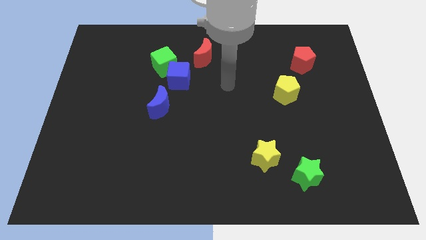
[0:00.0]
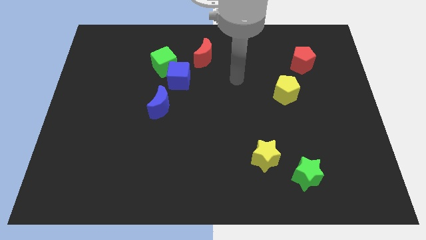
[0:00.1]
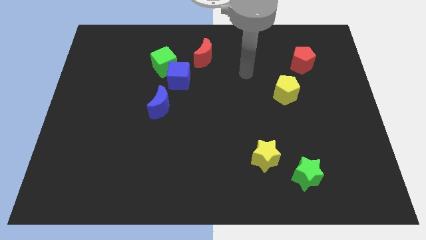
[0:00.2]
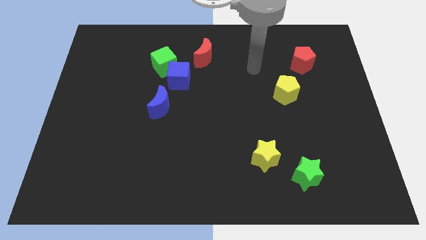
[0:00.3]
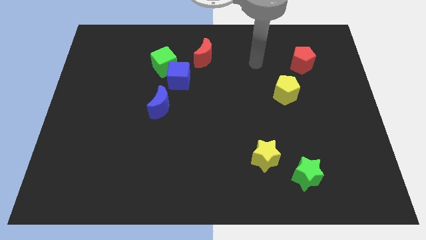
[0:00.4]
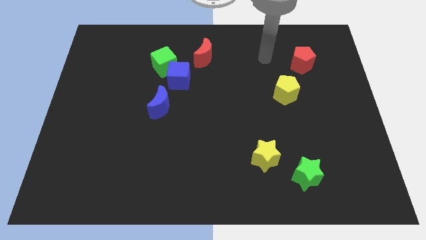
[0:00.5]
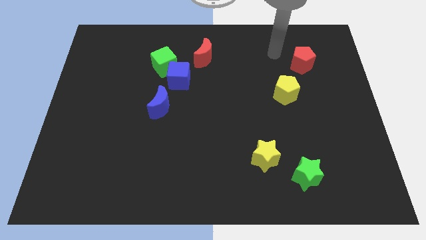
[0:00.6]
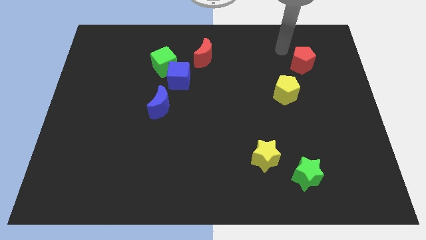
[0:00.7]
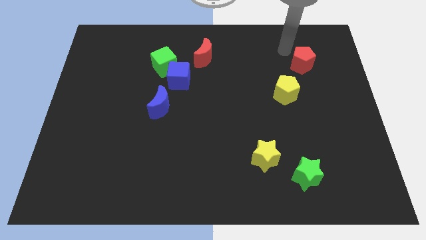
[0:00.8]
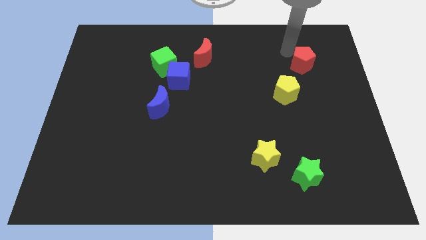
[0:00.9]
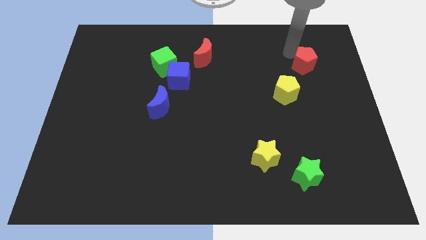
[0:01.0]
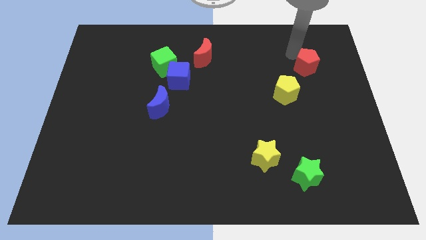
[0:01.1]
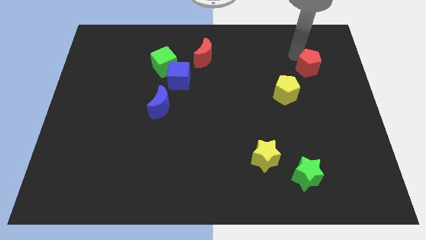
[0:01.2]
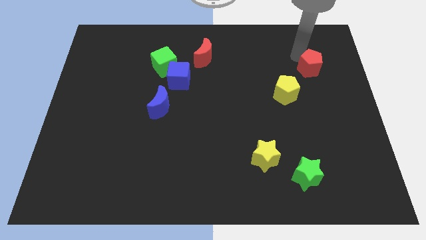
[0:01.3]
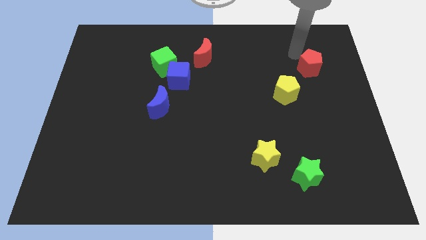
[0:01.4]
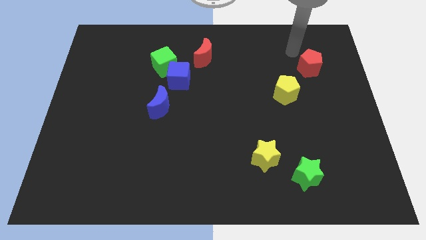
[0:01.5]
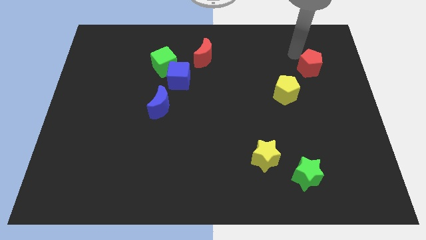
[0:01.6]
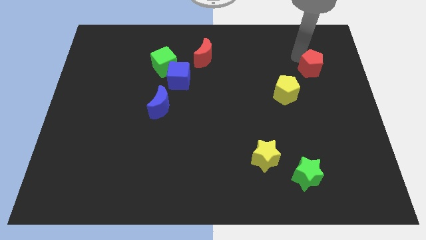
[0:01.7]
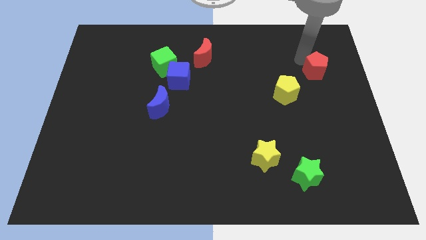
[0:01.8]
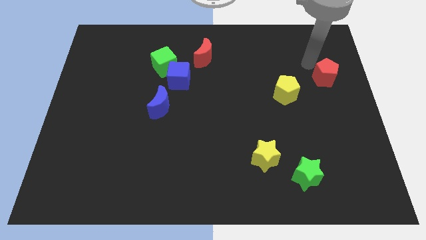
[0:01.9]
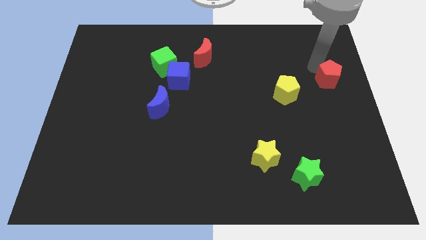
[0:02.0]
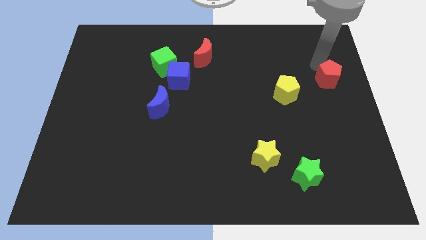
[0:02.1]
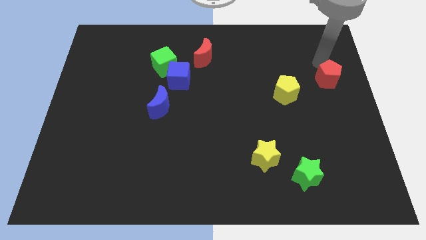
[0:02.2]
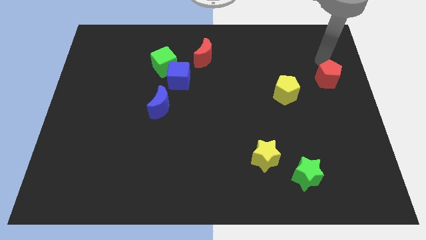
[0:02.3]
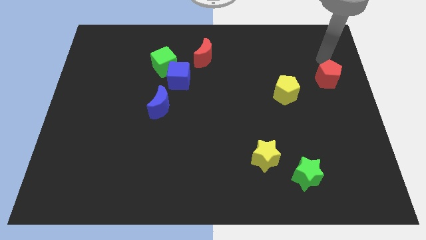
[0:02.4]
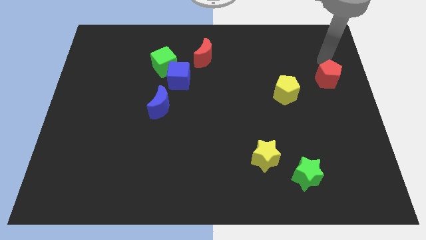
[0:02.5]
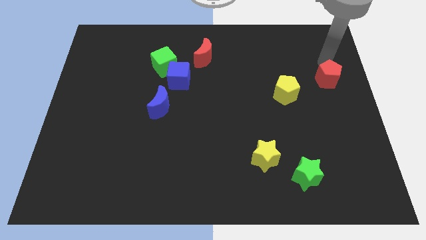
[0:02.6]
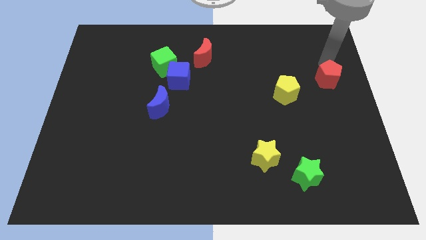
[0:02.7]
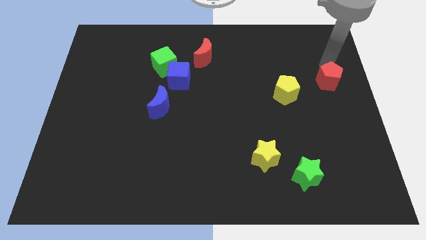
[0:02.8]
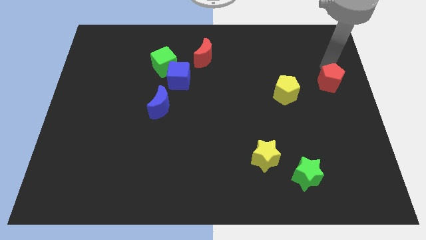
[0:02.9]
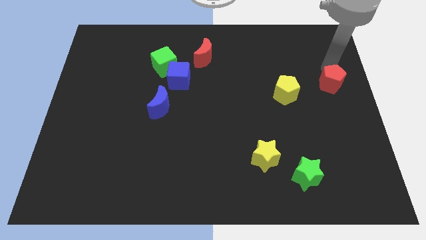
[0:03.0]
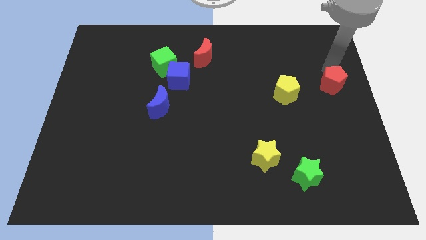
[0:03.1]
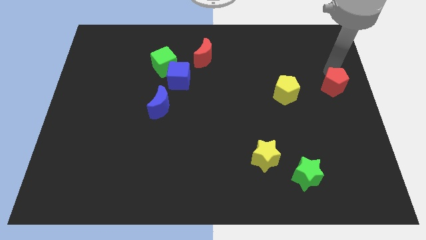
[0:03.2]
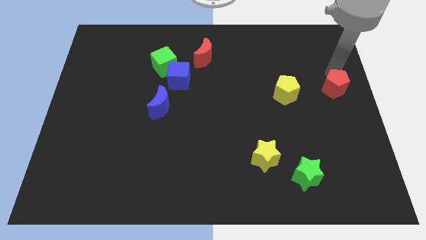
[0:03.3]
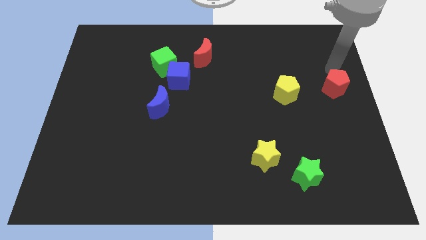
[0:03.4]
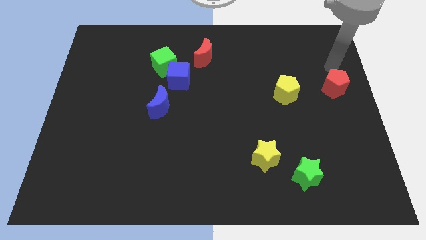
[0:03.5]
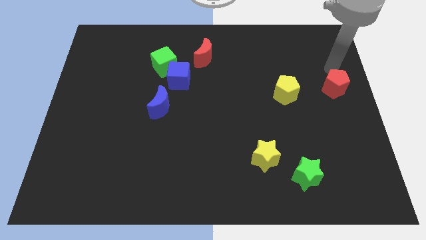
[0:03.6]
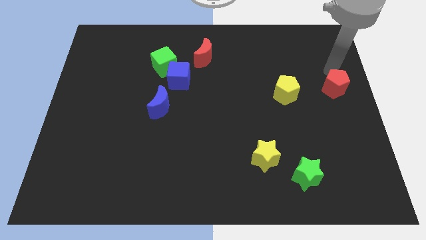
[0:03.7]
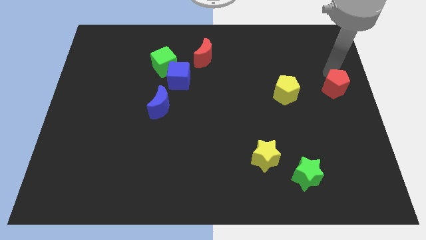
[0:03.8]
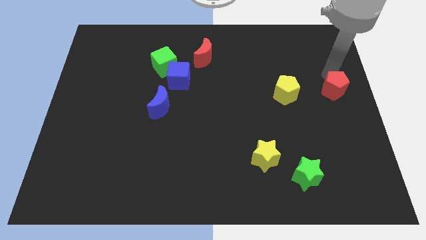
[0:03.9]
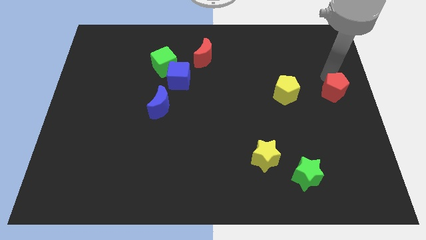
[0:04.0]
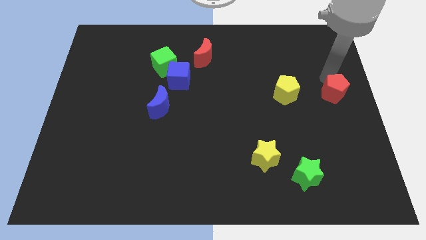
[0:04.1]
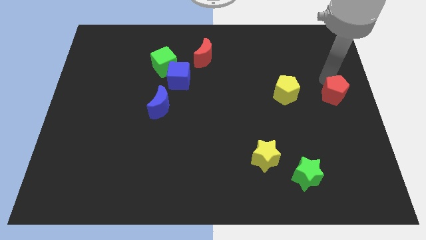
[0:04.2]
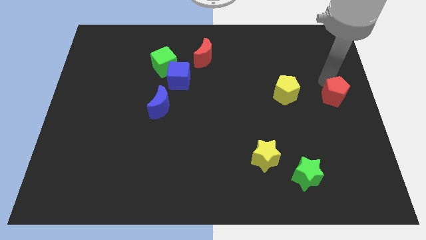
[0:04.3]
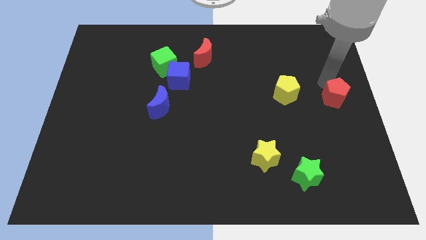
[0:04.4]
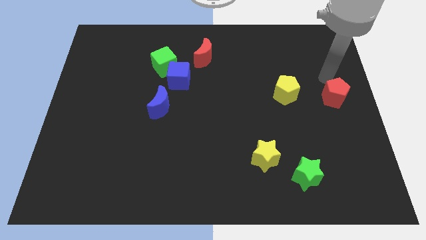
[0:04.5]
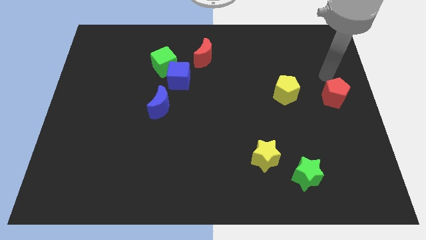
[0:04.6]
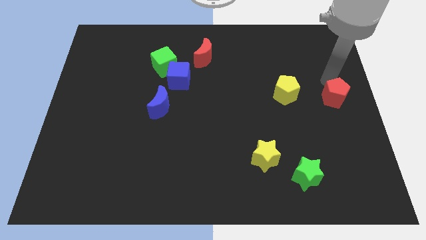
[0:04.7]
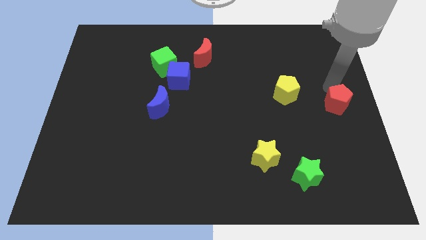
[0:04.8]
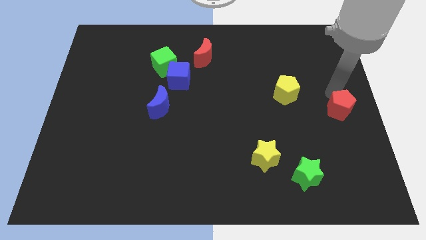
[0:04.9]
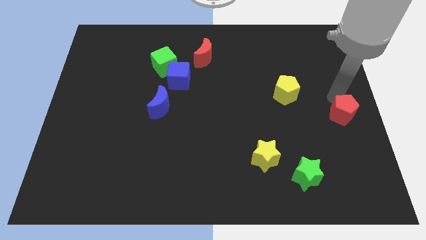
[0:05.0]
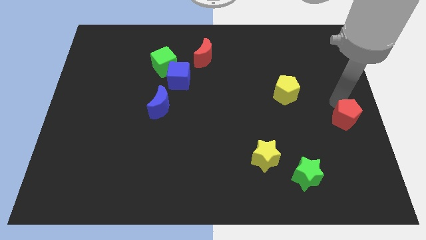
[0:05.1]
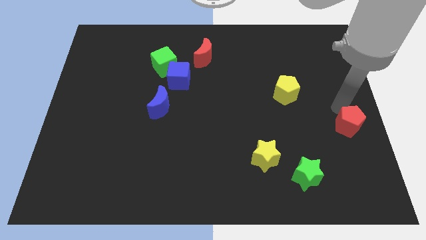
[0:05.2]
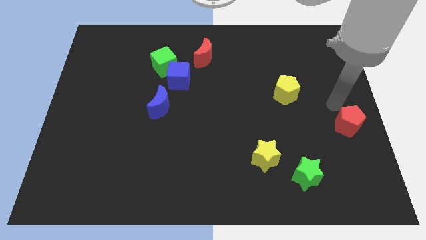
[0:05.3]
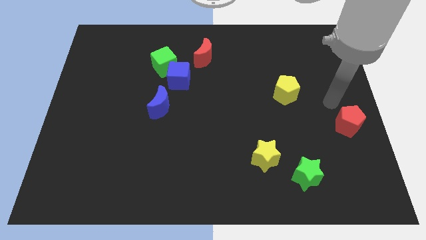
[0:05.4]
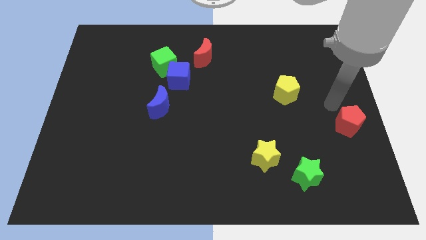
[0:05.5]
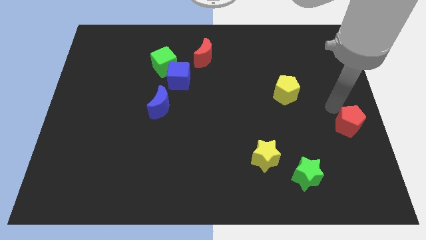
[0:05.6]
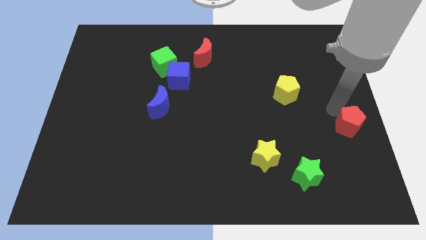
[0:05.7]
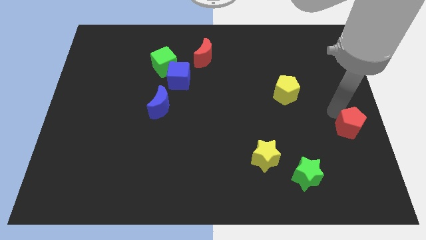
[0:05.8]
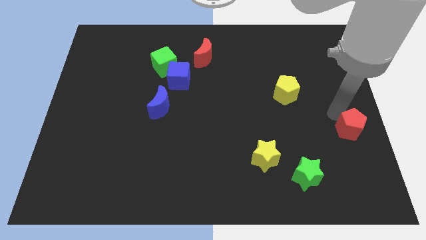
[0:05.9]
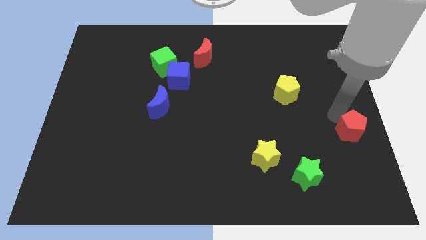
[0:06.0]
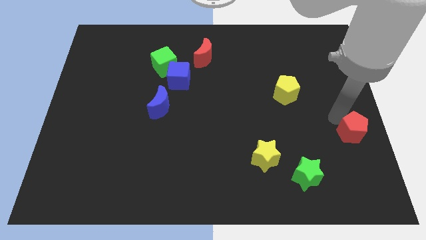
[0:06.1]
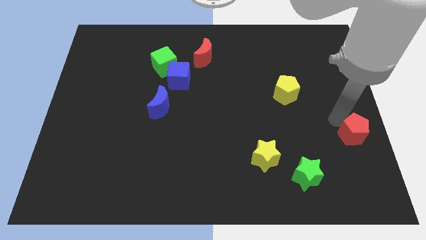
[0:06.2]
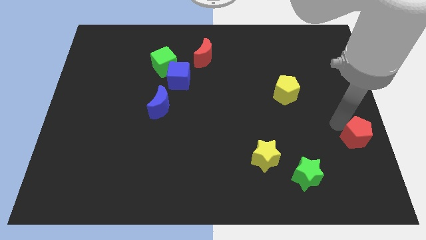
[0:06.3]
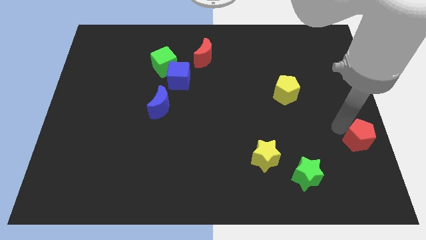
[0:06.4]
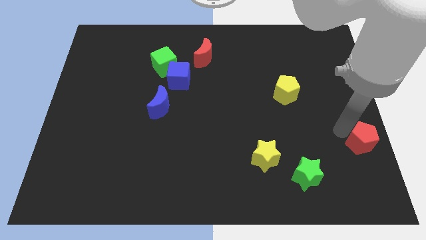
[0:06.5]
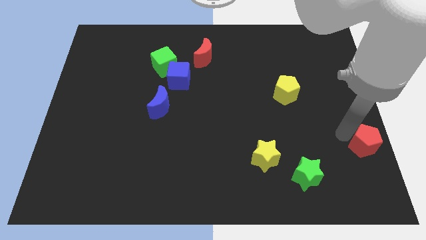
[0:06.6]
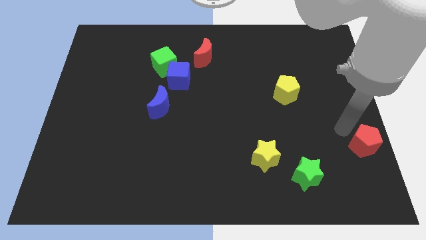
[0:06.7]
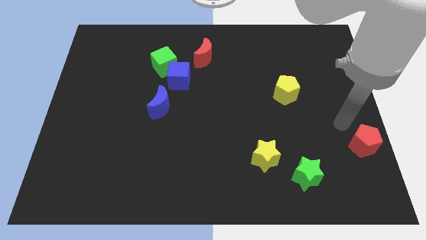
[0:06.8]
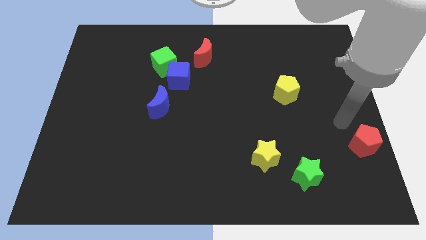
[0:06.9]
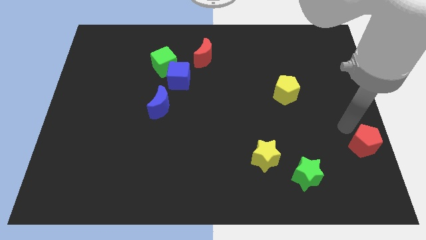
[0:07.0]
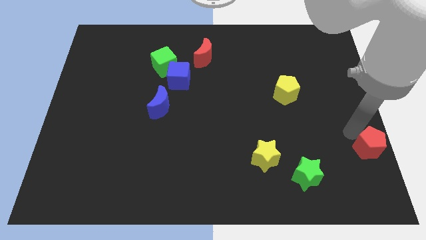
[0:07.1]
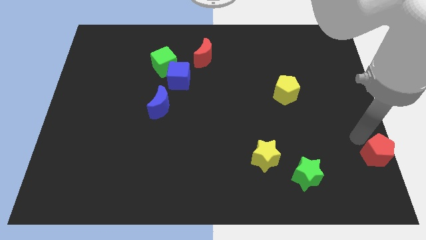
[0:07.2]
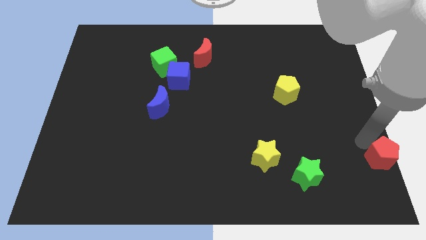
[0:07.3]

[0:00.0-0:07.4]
put the red pentagon to the bottom right corner

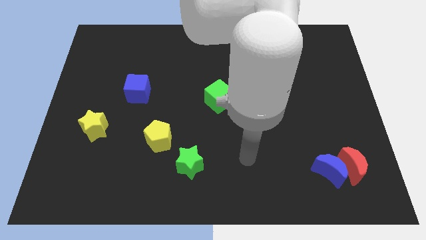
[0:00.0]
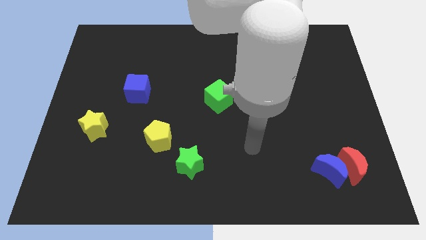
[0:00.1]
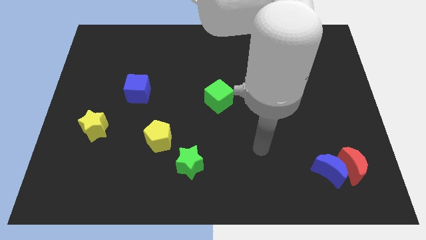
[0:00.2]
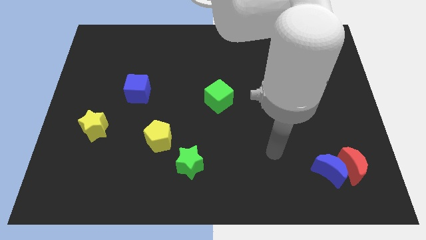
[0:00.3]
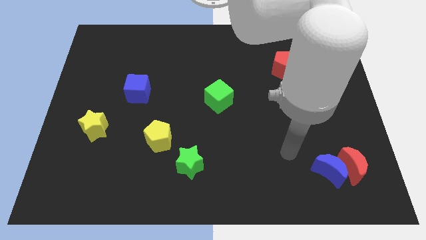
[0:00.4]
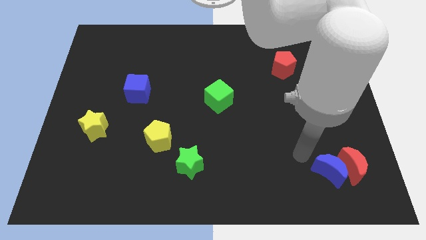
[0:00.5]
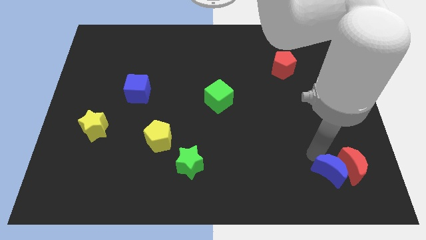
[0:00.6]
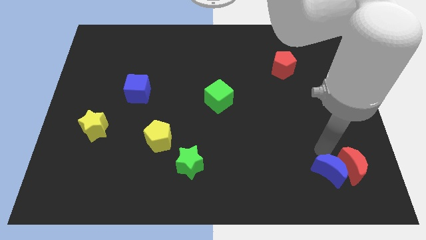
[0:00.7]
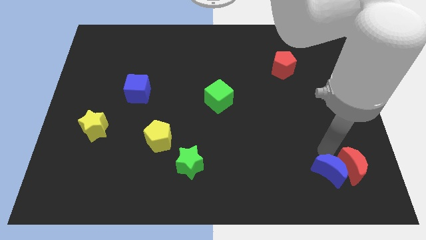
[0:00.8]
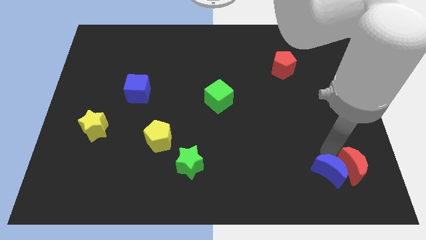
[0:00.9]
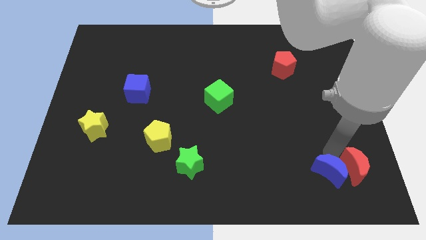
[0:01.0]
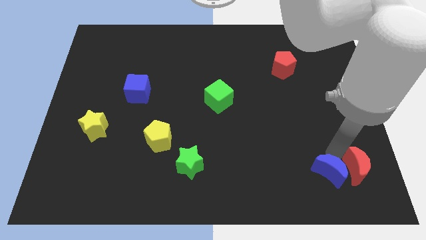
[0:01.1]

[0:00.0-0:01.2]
move the red moon to the lower right corner
